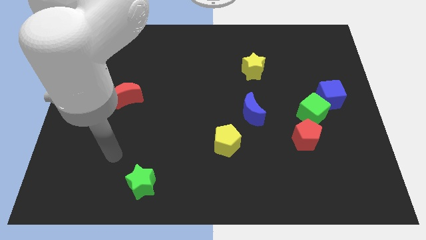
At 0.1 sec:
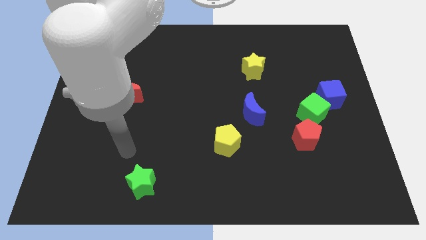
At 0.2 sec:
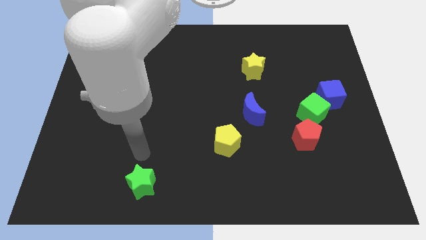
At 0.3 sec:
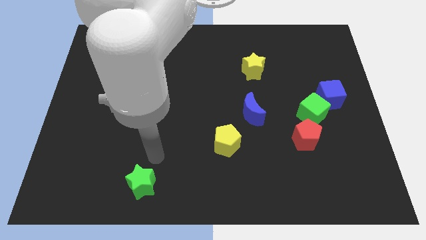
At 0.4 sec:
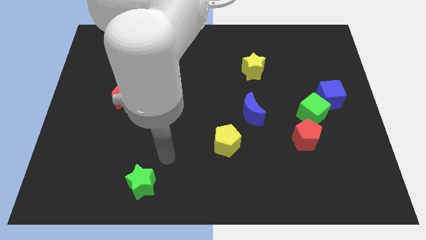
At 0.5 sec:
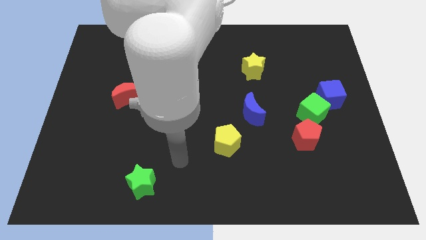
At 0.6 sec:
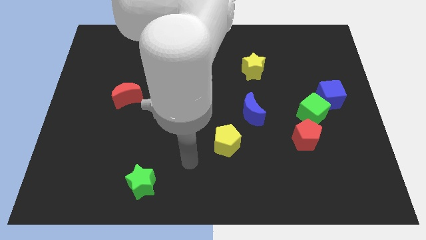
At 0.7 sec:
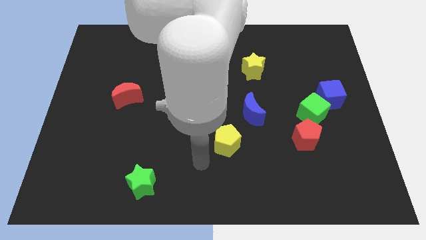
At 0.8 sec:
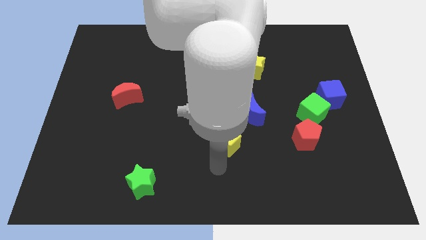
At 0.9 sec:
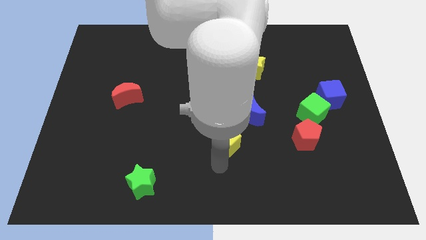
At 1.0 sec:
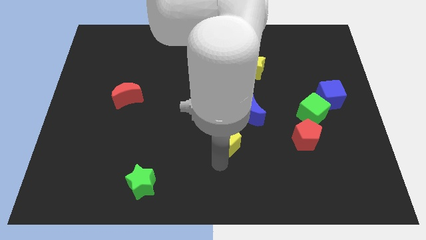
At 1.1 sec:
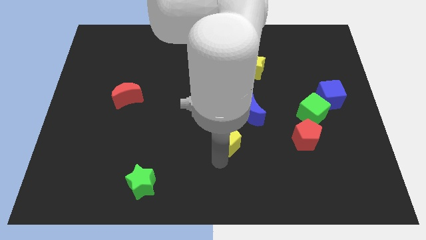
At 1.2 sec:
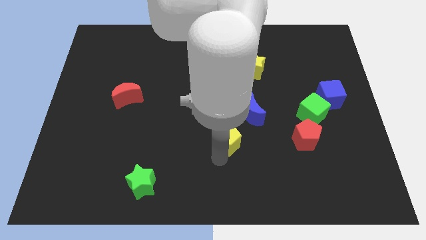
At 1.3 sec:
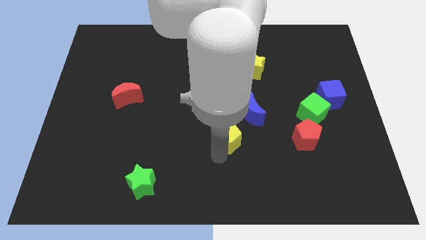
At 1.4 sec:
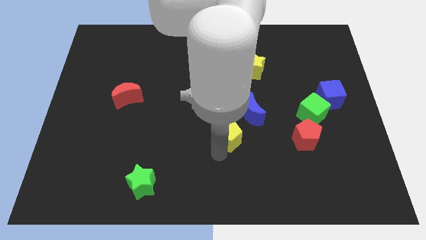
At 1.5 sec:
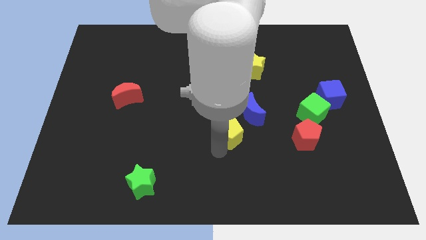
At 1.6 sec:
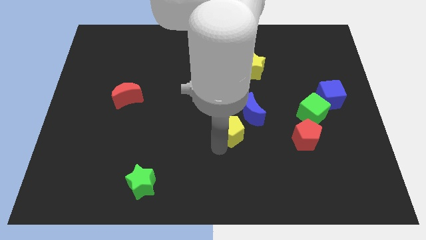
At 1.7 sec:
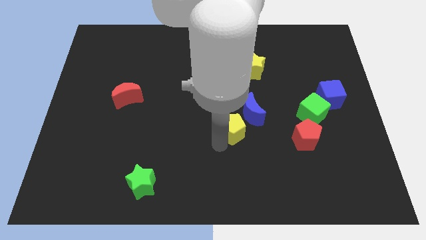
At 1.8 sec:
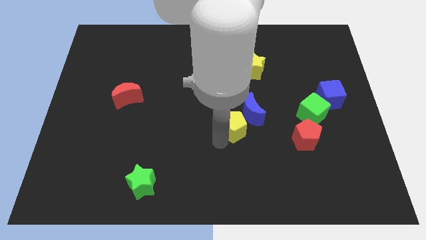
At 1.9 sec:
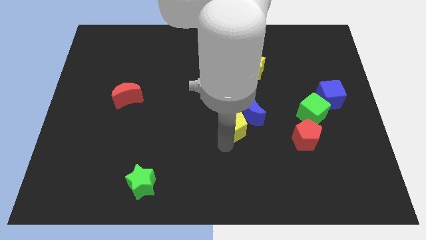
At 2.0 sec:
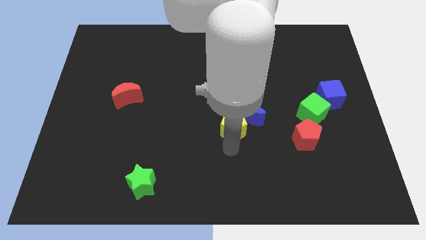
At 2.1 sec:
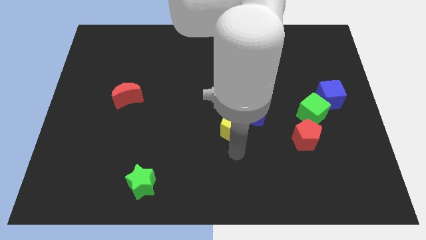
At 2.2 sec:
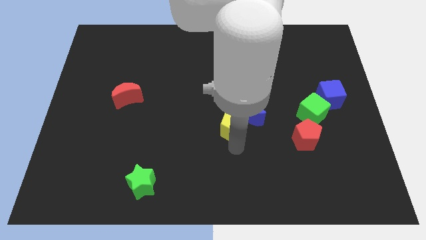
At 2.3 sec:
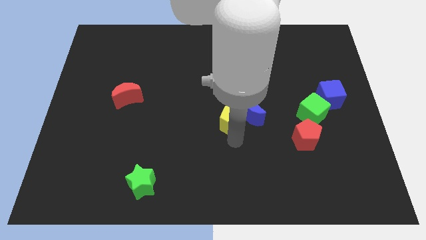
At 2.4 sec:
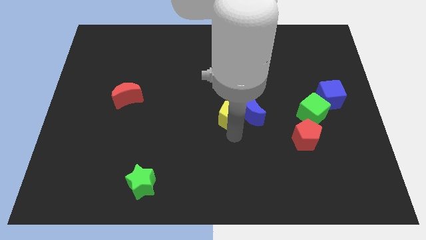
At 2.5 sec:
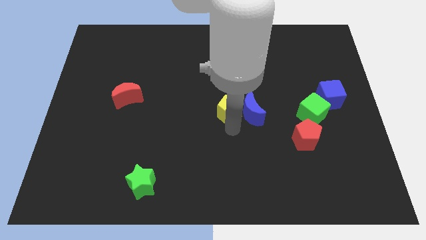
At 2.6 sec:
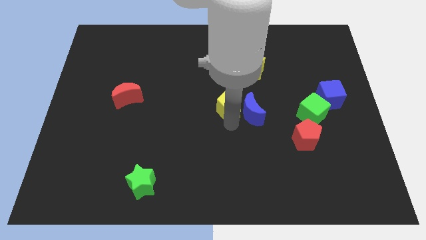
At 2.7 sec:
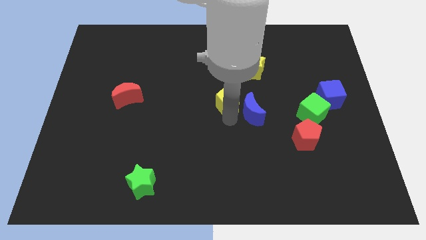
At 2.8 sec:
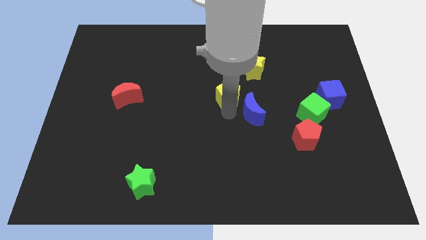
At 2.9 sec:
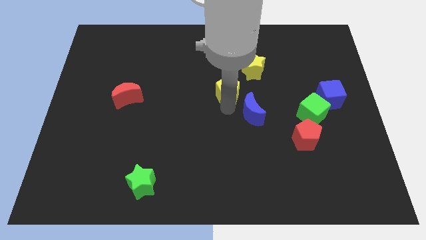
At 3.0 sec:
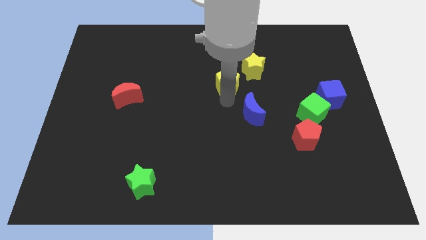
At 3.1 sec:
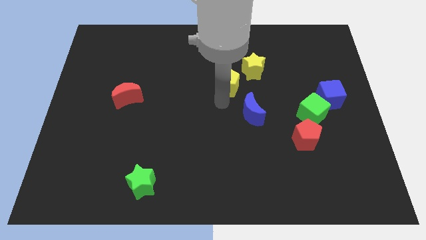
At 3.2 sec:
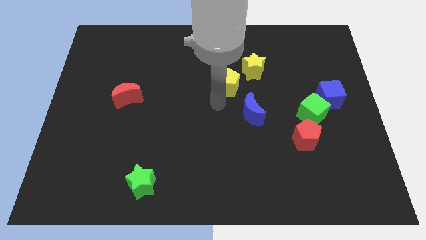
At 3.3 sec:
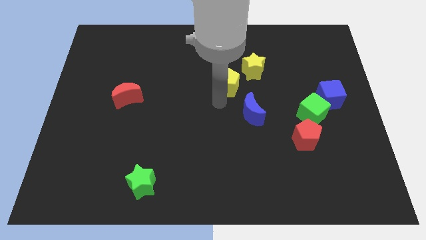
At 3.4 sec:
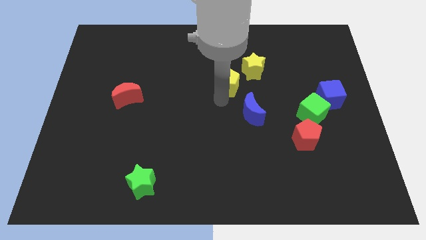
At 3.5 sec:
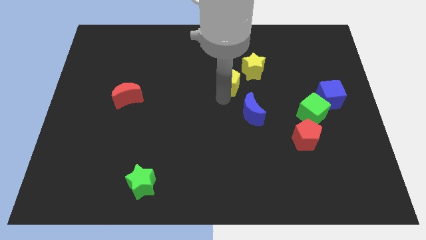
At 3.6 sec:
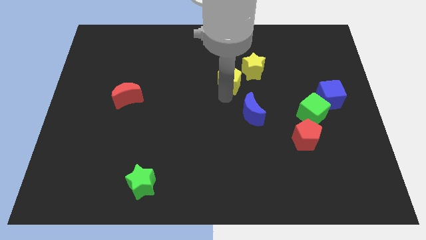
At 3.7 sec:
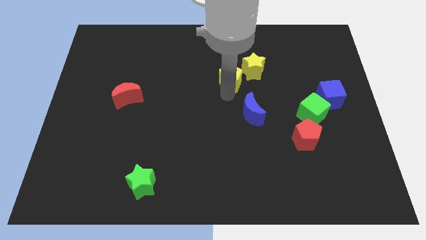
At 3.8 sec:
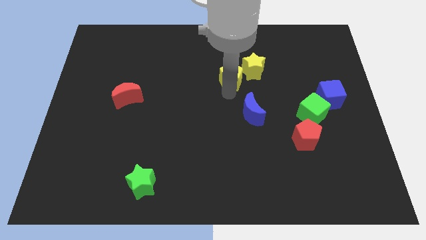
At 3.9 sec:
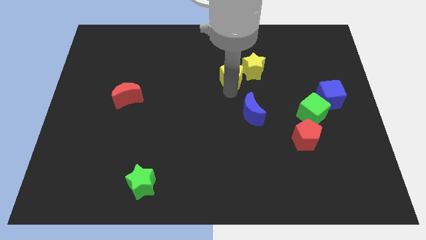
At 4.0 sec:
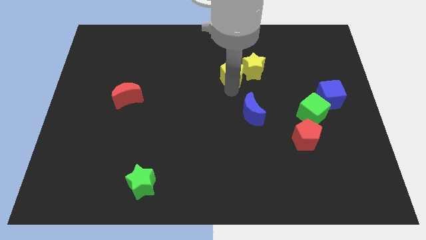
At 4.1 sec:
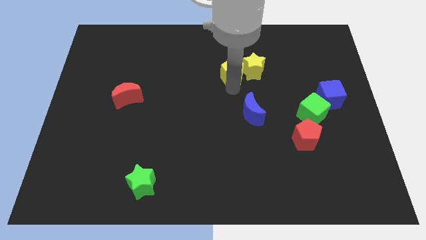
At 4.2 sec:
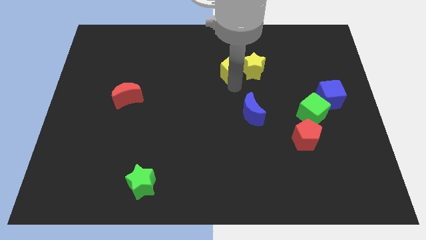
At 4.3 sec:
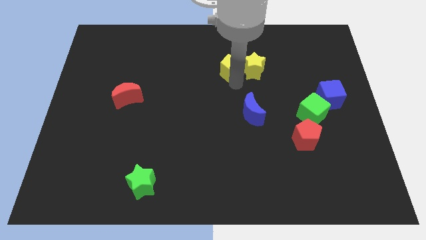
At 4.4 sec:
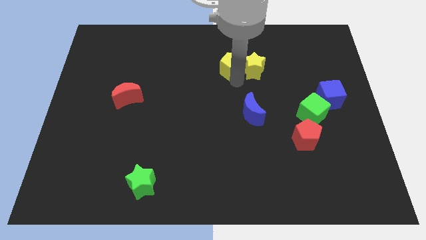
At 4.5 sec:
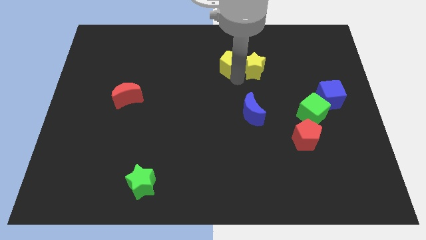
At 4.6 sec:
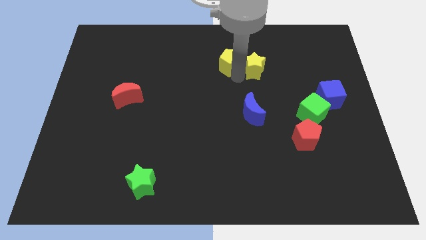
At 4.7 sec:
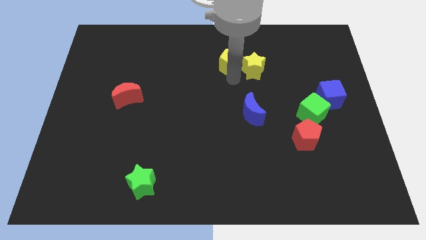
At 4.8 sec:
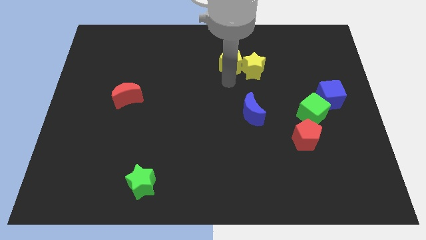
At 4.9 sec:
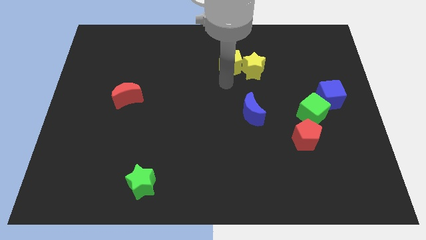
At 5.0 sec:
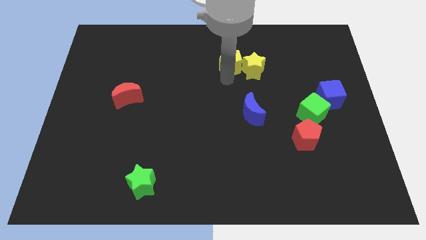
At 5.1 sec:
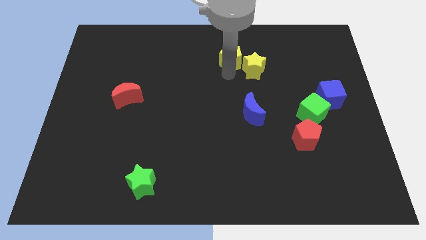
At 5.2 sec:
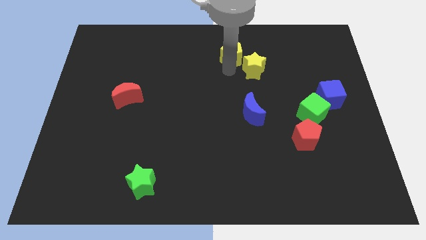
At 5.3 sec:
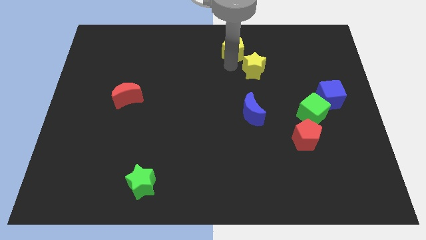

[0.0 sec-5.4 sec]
push the yellow pentagon to the top

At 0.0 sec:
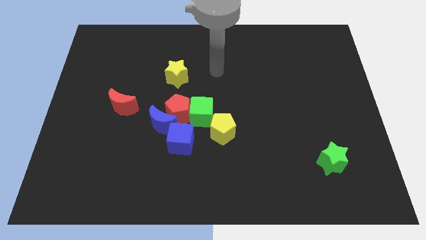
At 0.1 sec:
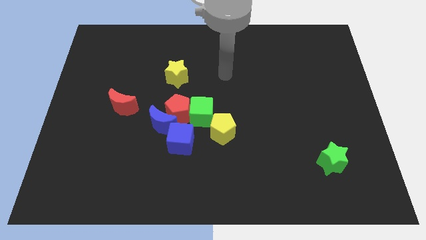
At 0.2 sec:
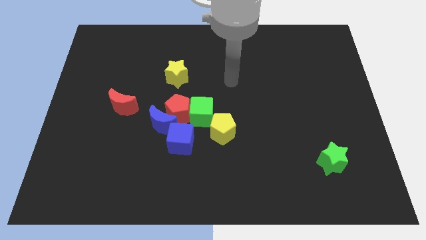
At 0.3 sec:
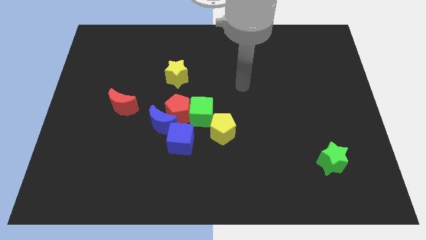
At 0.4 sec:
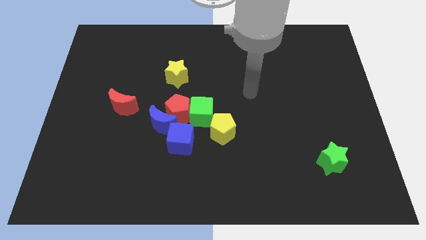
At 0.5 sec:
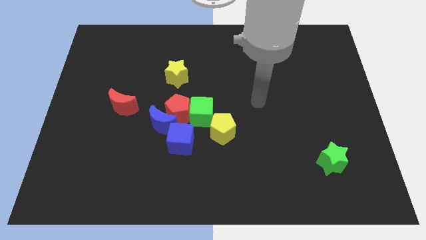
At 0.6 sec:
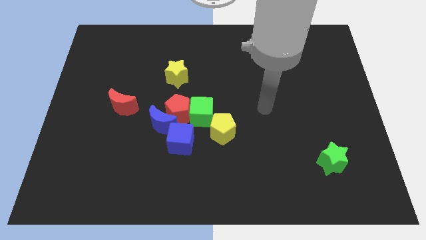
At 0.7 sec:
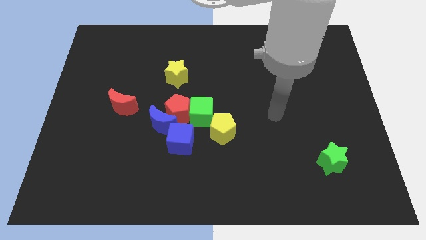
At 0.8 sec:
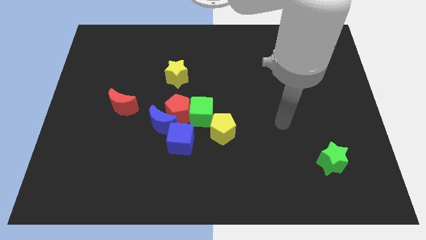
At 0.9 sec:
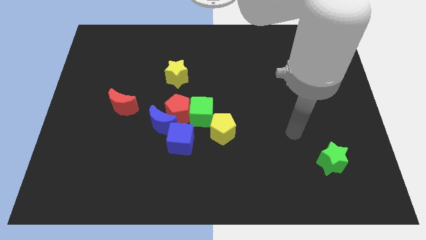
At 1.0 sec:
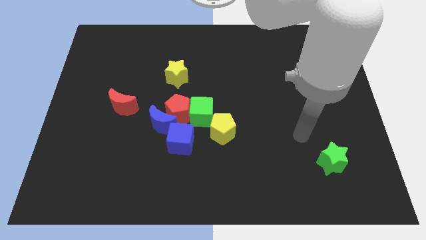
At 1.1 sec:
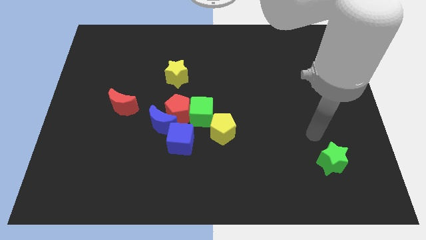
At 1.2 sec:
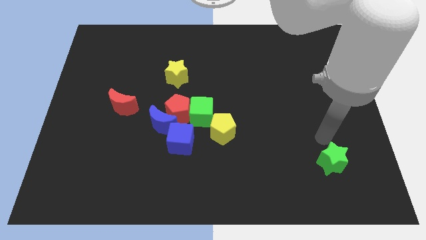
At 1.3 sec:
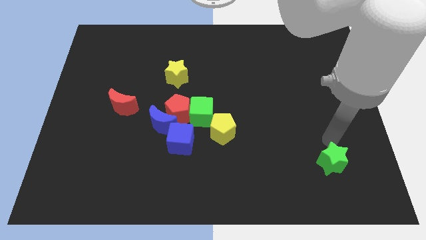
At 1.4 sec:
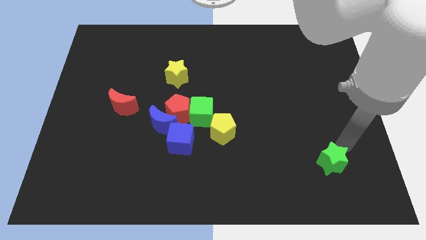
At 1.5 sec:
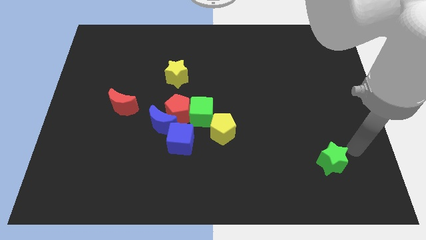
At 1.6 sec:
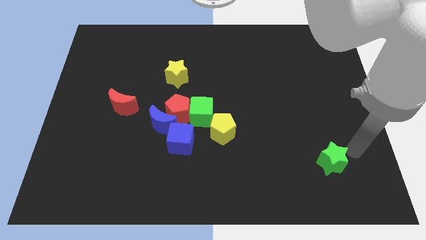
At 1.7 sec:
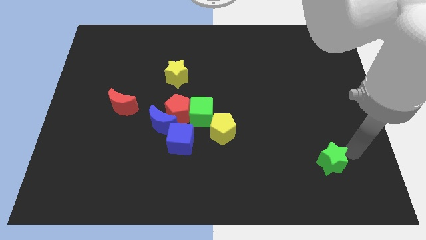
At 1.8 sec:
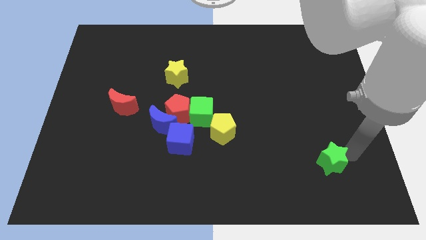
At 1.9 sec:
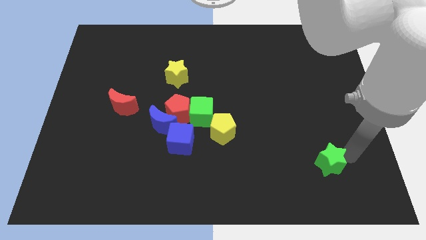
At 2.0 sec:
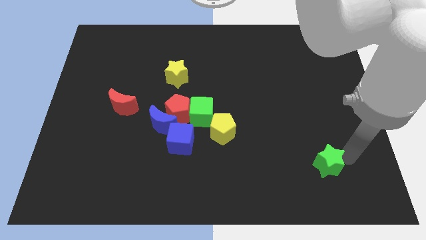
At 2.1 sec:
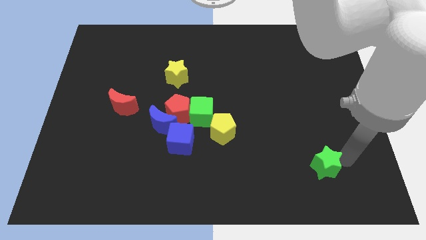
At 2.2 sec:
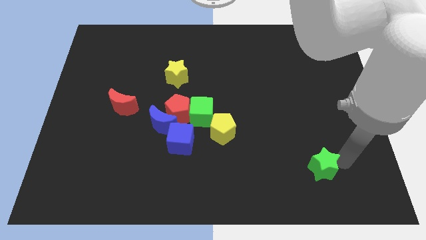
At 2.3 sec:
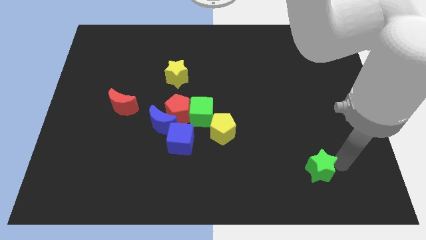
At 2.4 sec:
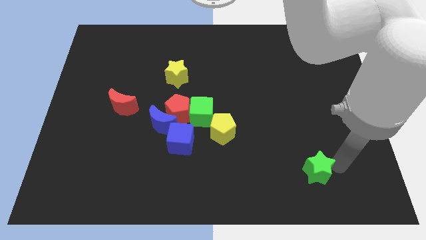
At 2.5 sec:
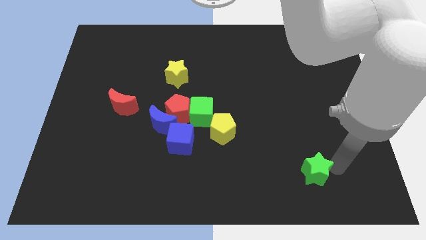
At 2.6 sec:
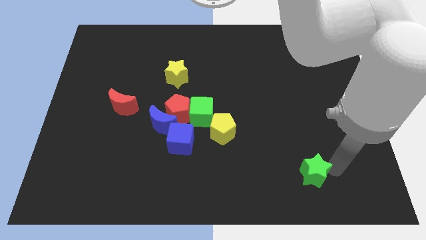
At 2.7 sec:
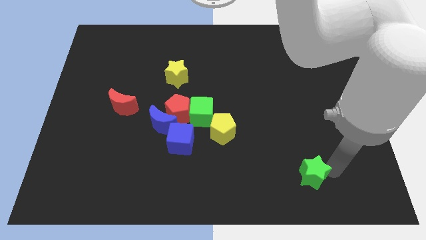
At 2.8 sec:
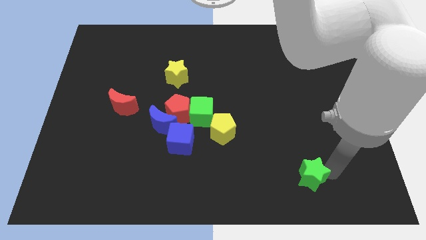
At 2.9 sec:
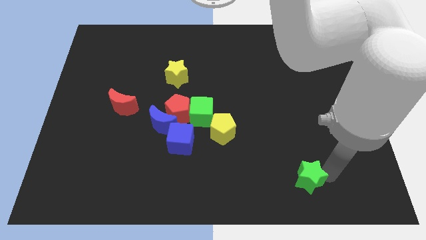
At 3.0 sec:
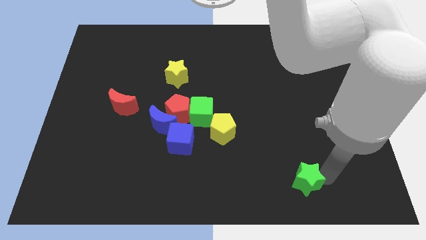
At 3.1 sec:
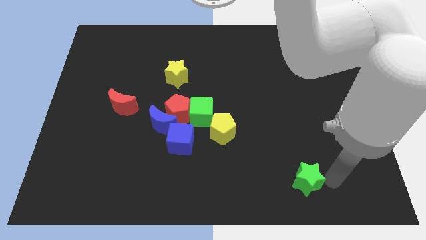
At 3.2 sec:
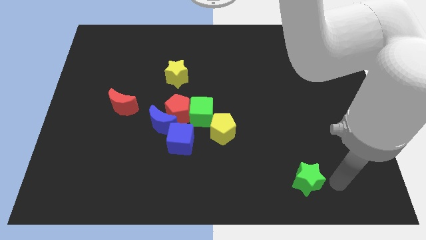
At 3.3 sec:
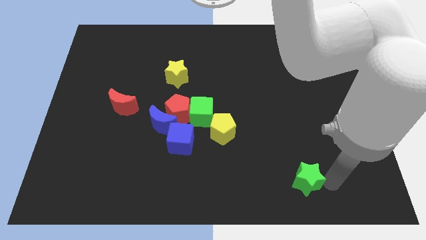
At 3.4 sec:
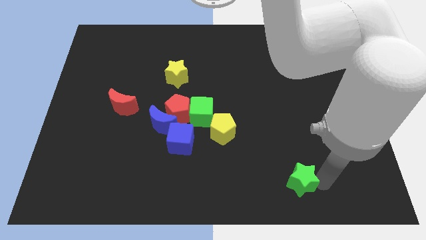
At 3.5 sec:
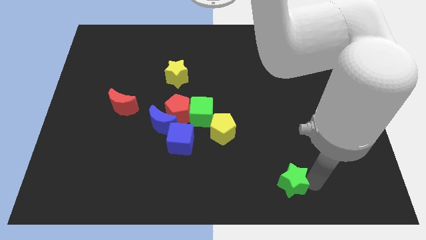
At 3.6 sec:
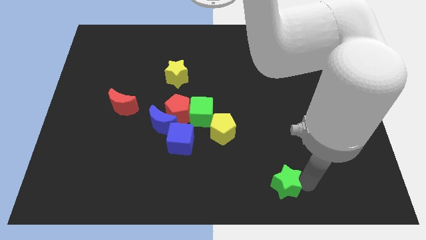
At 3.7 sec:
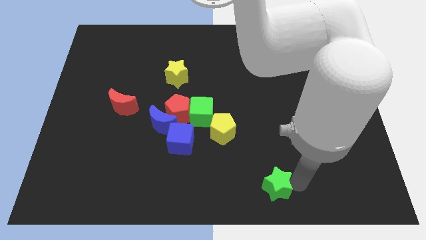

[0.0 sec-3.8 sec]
put the green star to the bottom
